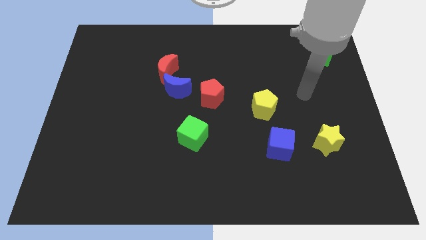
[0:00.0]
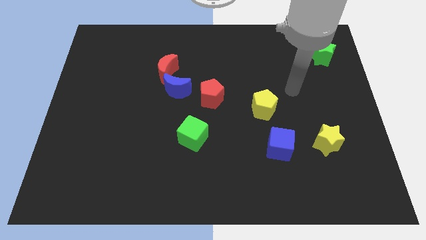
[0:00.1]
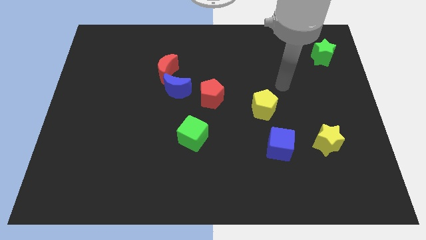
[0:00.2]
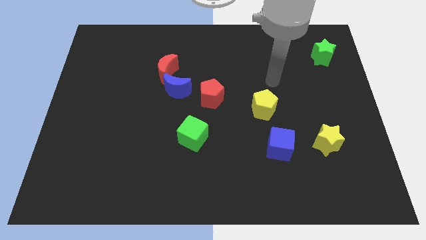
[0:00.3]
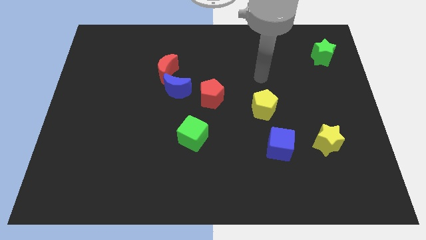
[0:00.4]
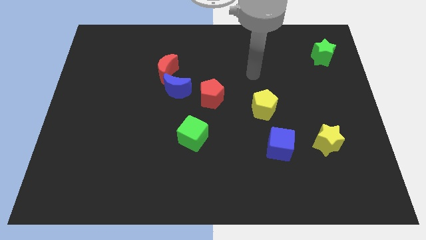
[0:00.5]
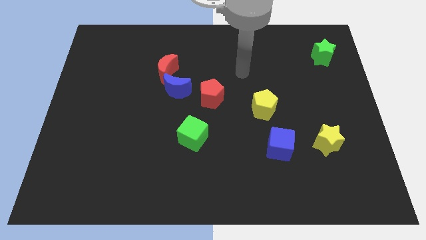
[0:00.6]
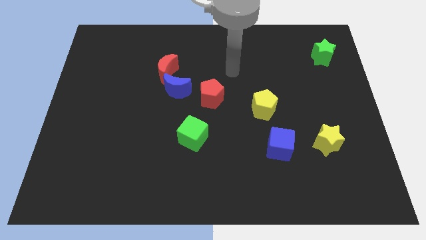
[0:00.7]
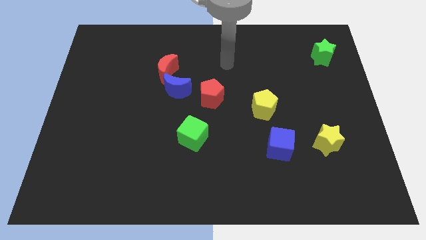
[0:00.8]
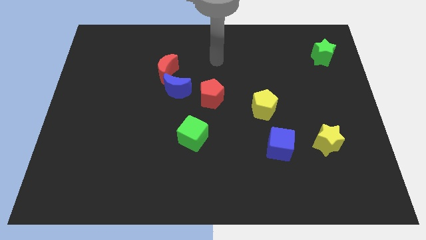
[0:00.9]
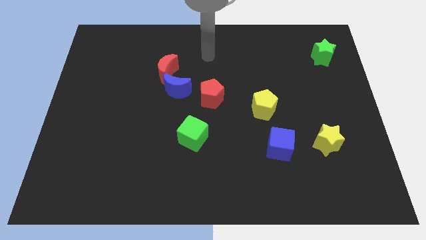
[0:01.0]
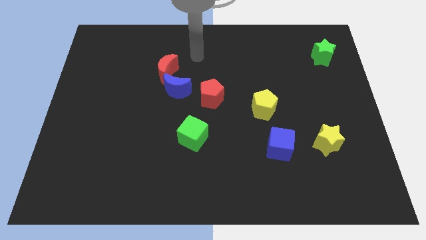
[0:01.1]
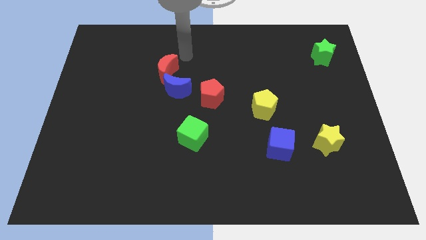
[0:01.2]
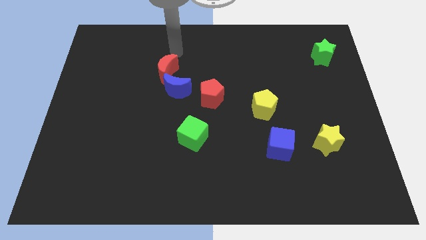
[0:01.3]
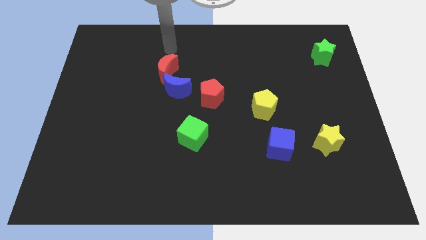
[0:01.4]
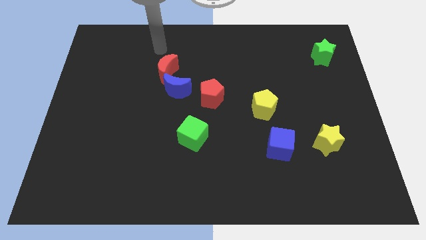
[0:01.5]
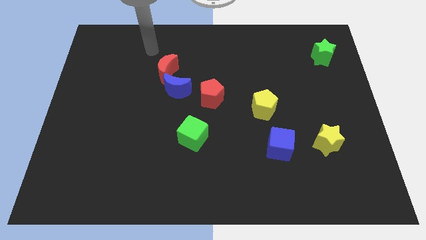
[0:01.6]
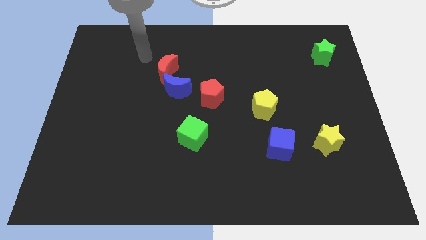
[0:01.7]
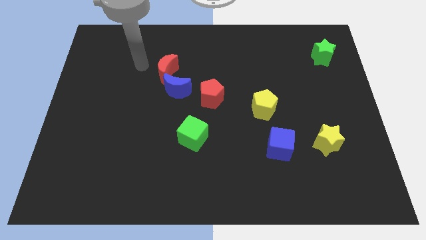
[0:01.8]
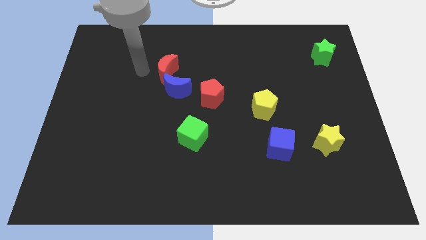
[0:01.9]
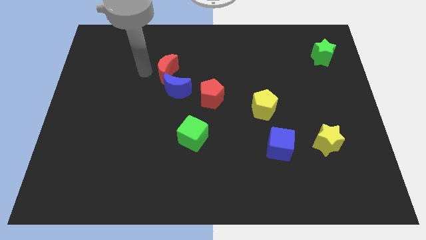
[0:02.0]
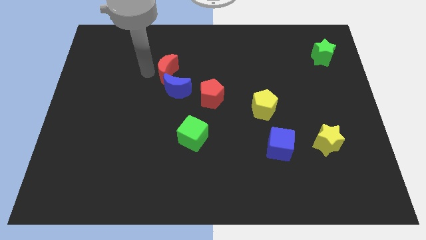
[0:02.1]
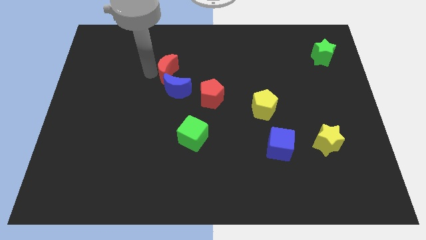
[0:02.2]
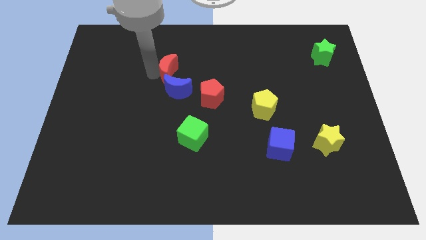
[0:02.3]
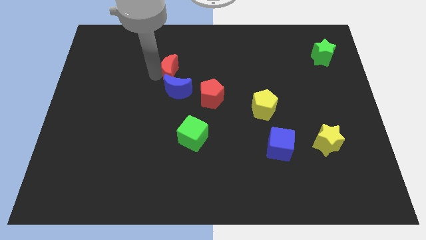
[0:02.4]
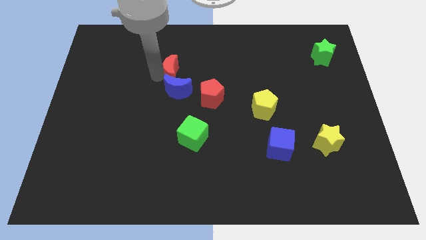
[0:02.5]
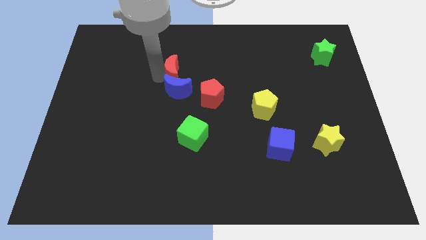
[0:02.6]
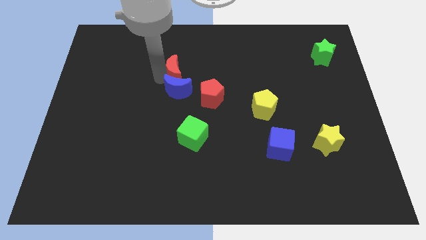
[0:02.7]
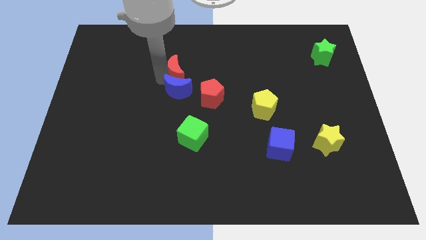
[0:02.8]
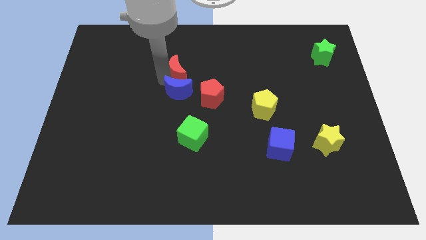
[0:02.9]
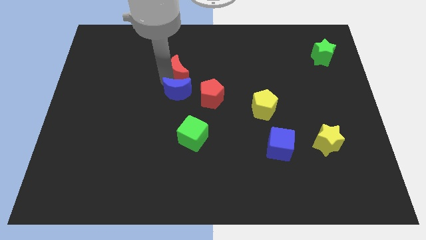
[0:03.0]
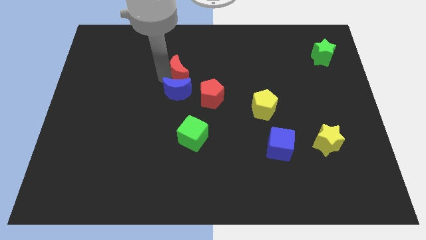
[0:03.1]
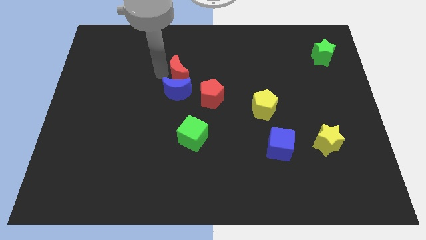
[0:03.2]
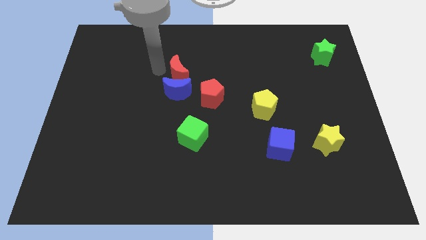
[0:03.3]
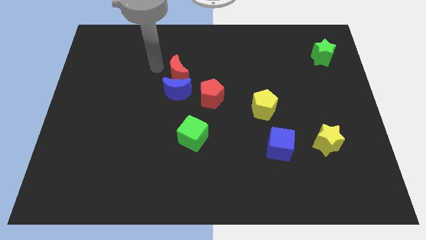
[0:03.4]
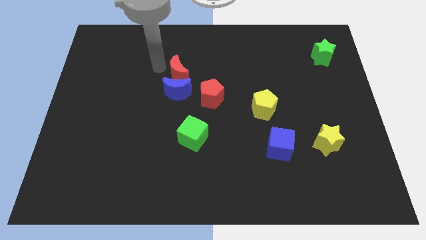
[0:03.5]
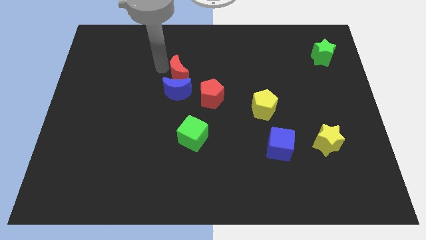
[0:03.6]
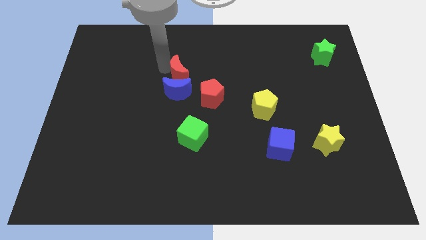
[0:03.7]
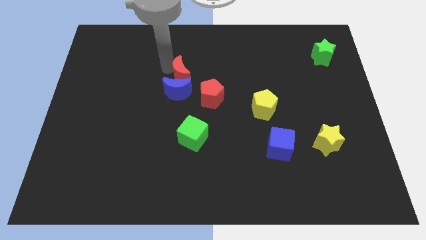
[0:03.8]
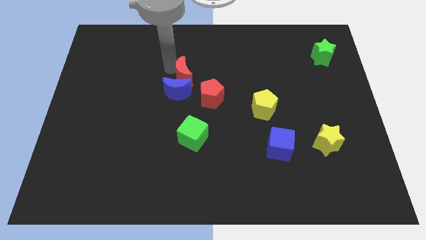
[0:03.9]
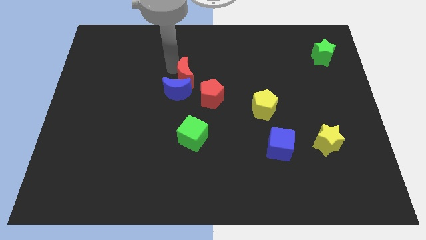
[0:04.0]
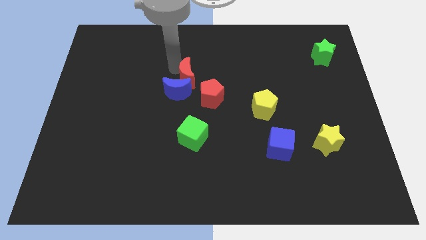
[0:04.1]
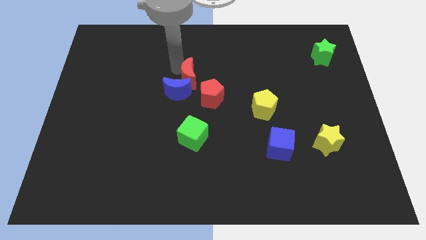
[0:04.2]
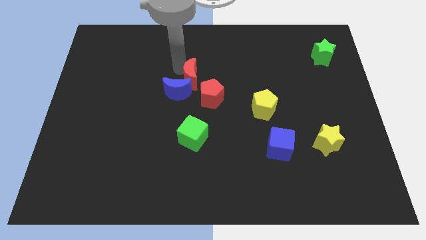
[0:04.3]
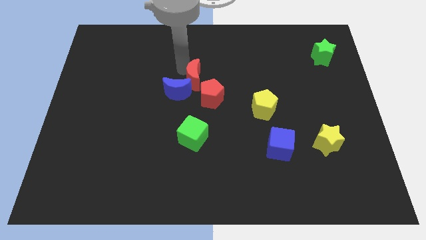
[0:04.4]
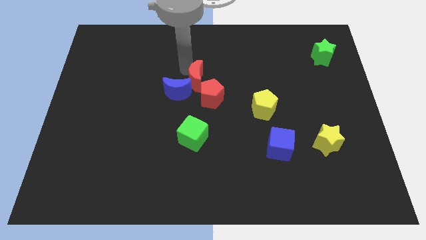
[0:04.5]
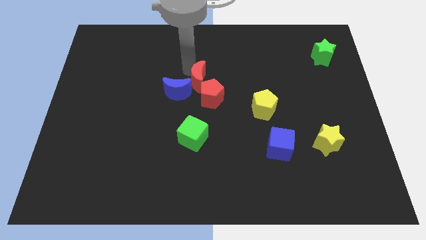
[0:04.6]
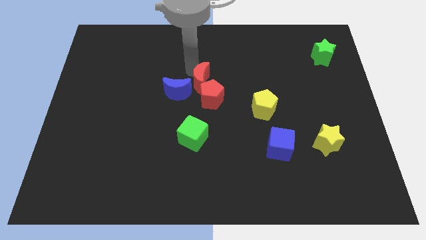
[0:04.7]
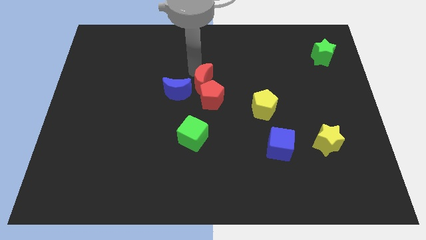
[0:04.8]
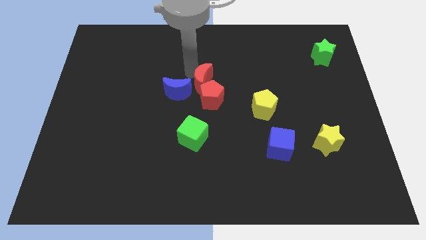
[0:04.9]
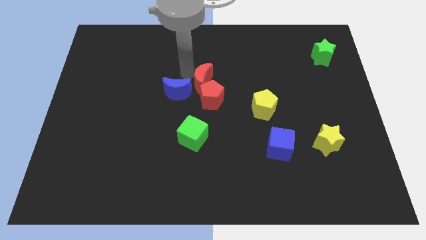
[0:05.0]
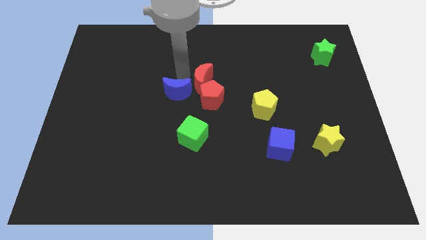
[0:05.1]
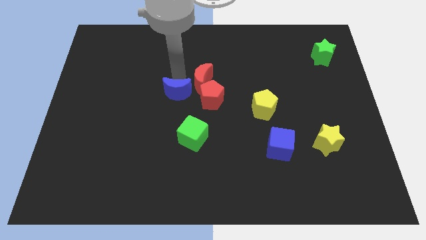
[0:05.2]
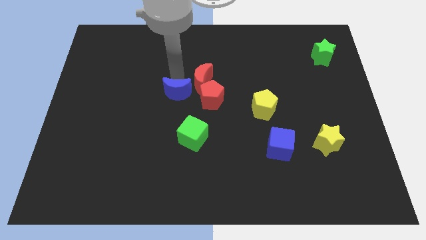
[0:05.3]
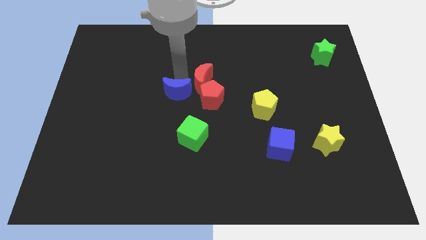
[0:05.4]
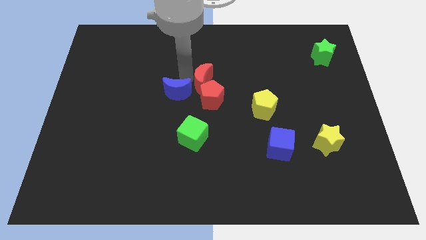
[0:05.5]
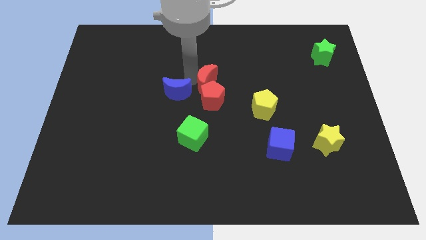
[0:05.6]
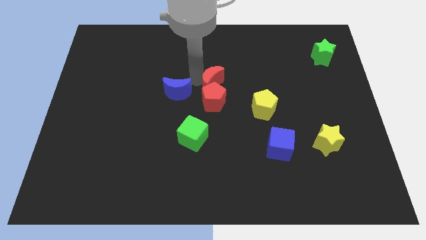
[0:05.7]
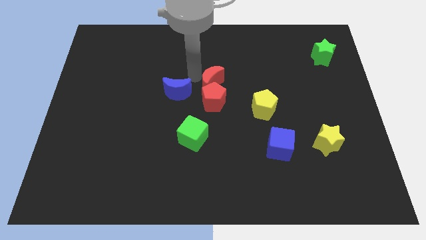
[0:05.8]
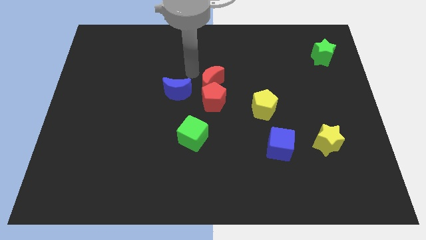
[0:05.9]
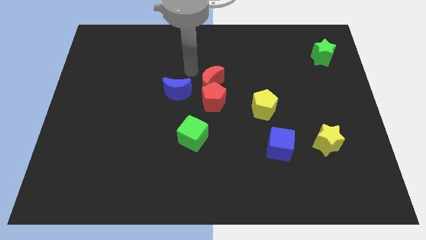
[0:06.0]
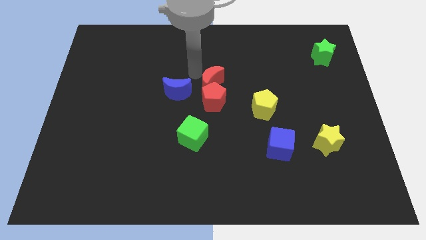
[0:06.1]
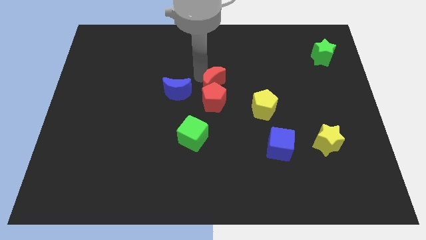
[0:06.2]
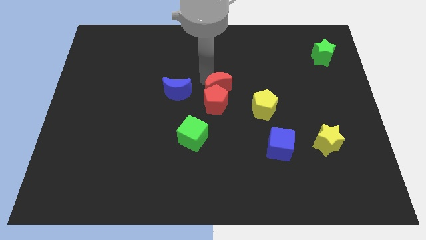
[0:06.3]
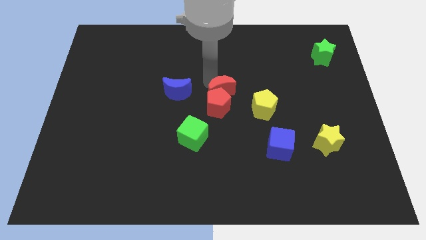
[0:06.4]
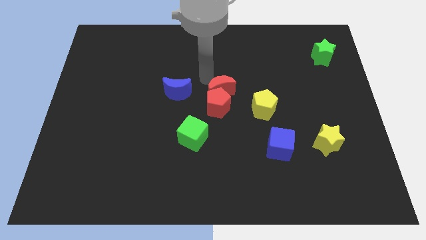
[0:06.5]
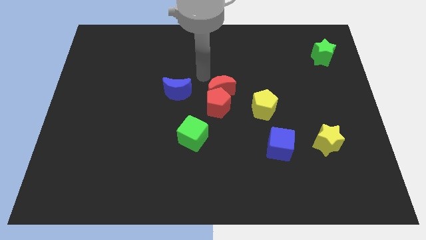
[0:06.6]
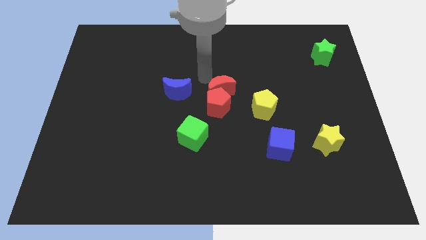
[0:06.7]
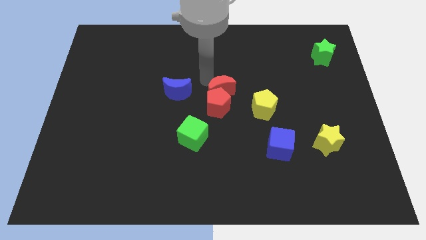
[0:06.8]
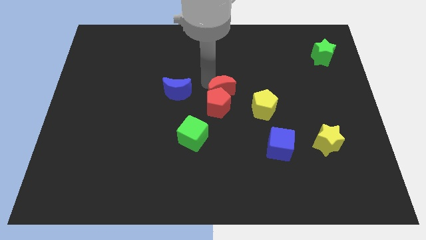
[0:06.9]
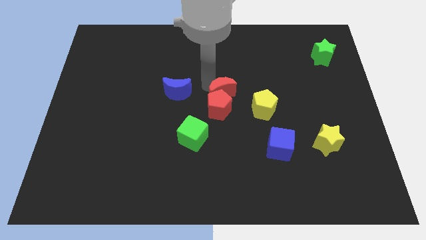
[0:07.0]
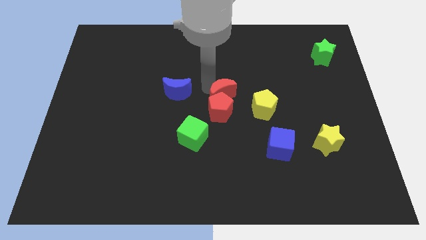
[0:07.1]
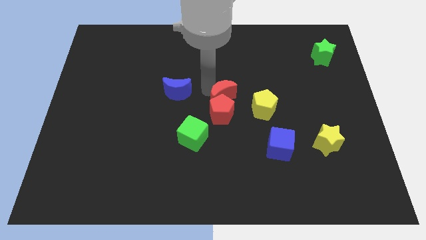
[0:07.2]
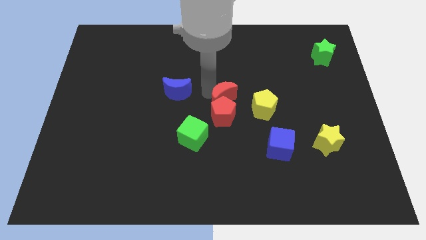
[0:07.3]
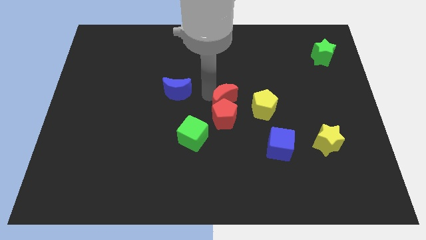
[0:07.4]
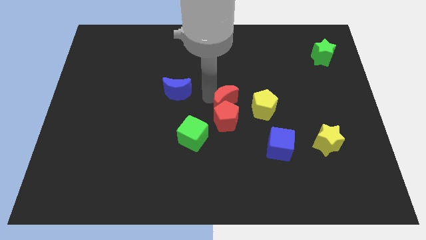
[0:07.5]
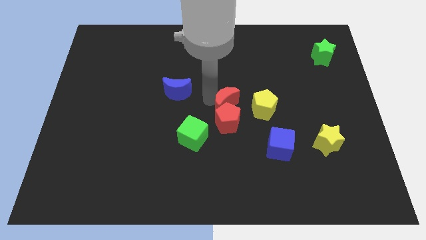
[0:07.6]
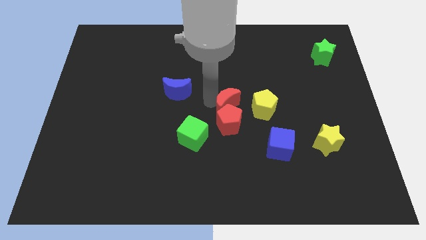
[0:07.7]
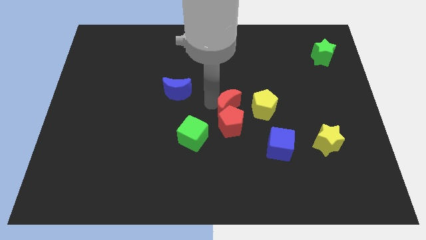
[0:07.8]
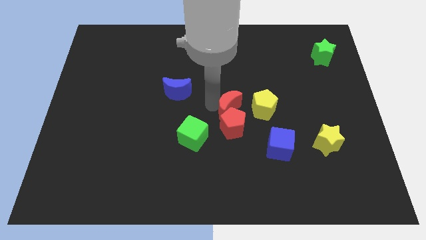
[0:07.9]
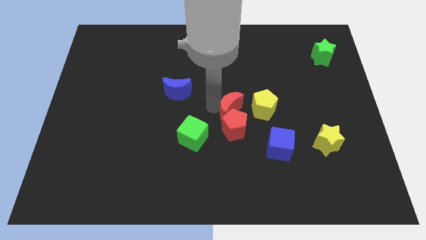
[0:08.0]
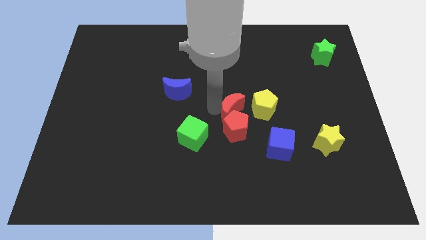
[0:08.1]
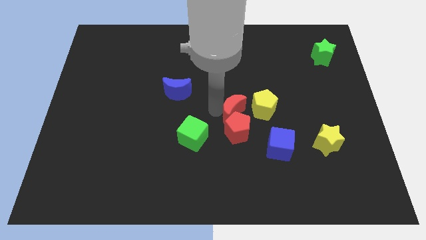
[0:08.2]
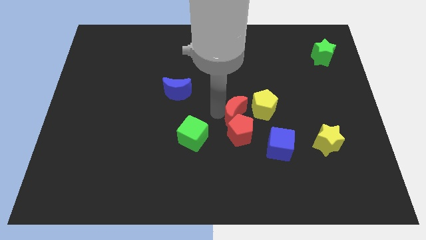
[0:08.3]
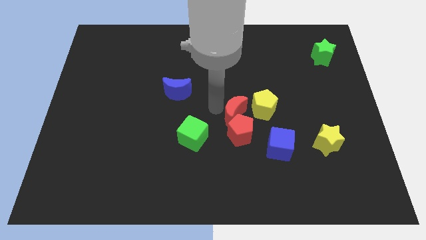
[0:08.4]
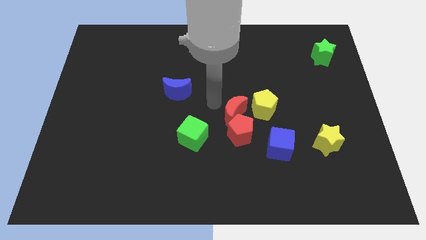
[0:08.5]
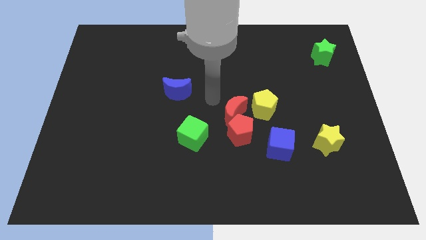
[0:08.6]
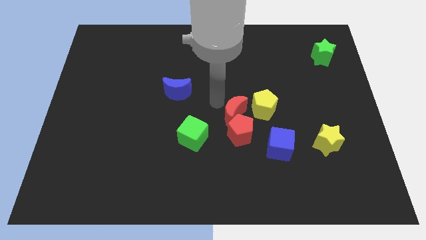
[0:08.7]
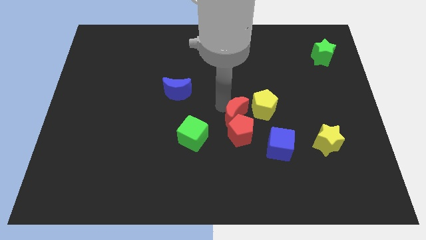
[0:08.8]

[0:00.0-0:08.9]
slide the red moon to the top left of the blue cube
